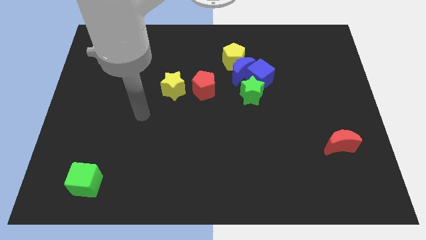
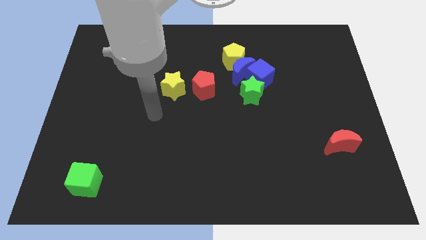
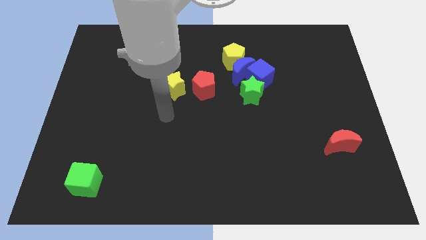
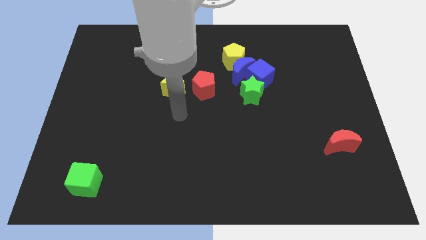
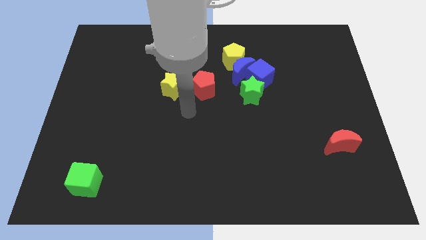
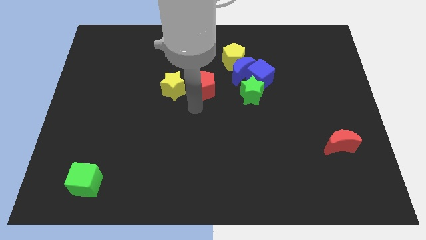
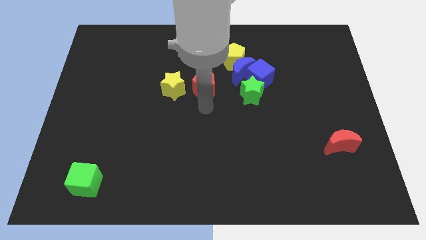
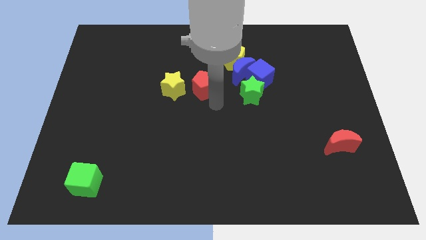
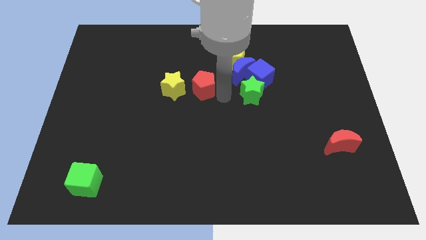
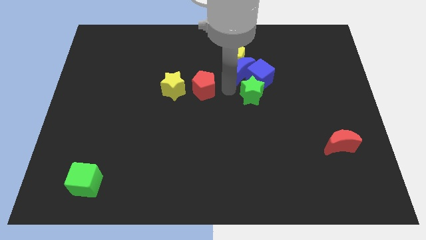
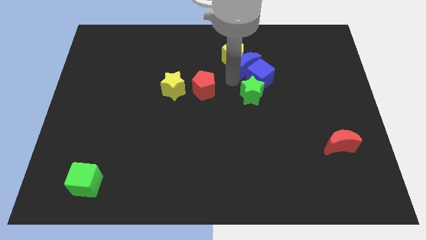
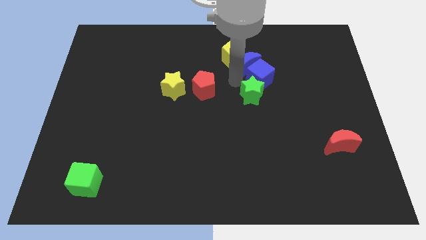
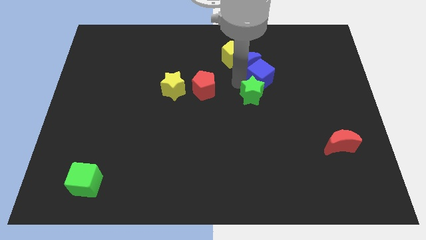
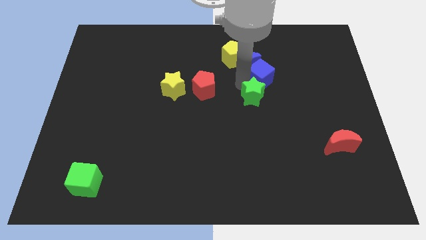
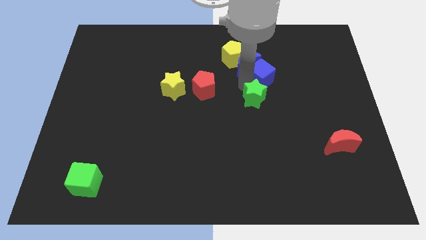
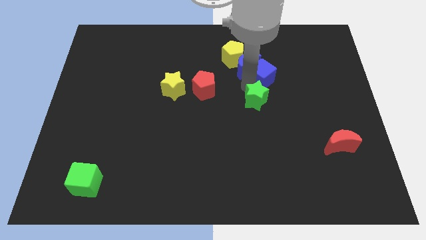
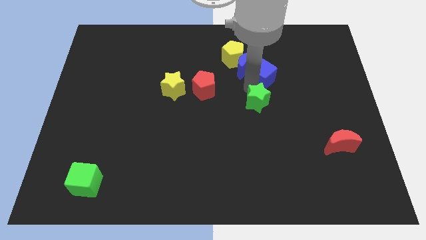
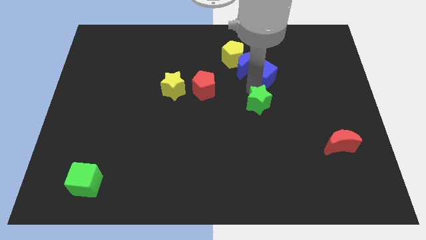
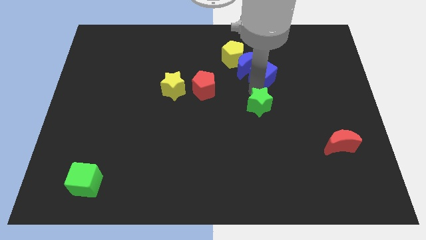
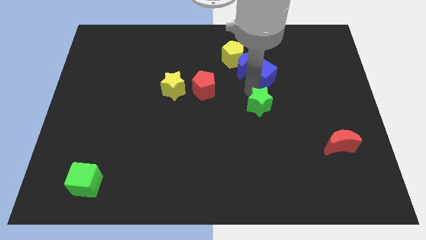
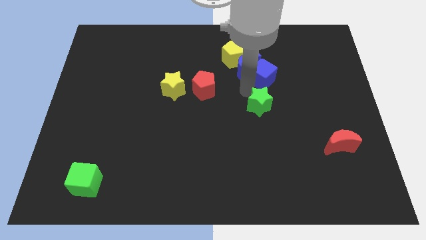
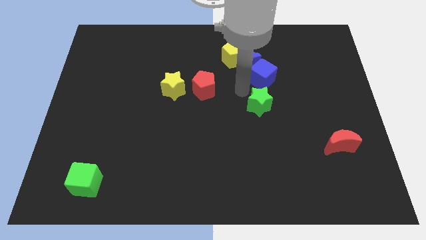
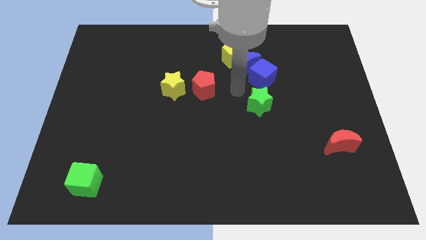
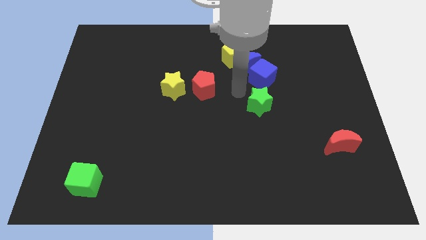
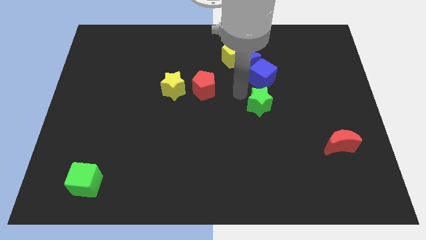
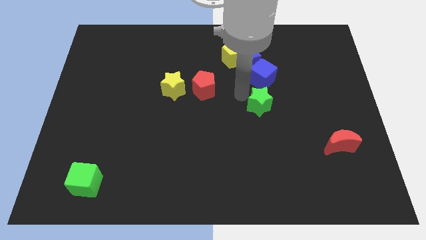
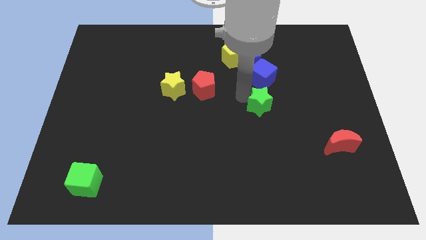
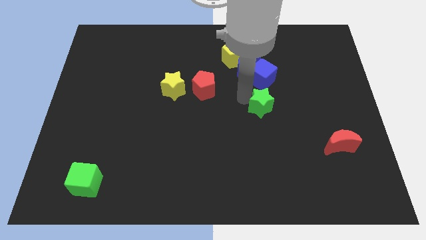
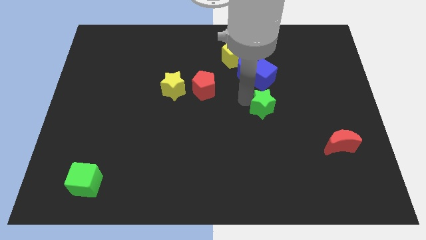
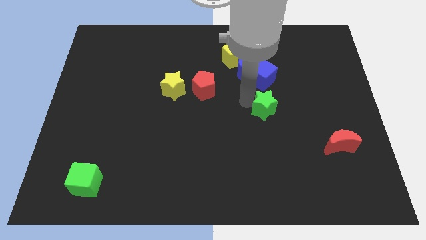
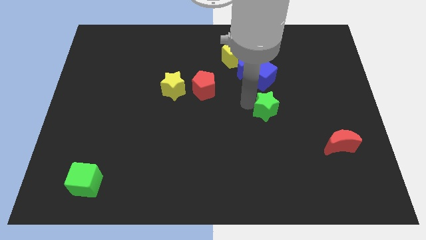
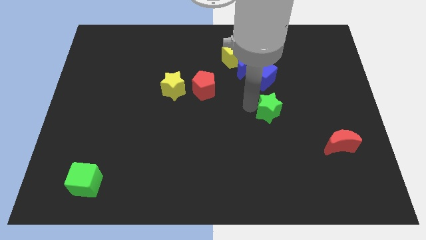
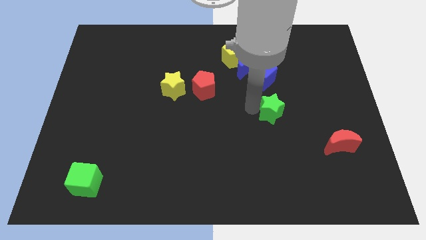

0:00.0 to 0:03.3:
slightly move the green star downwards and right diagonally

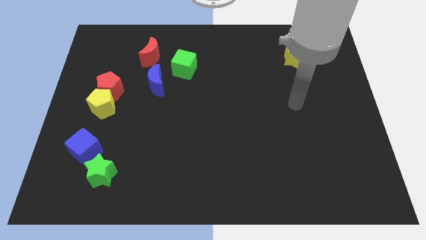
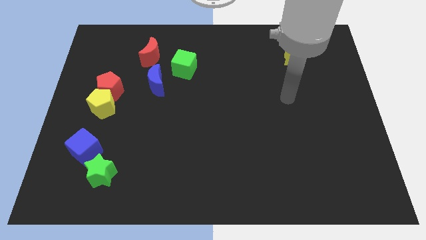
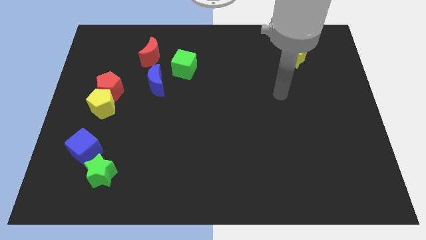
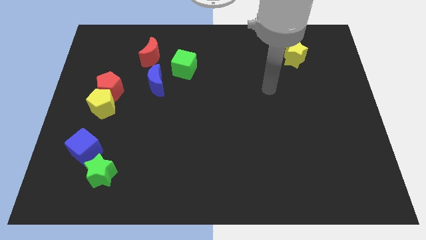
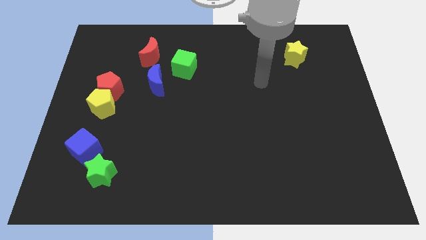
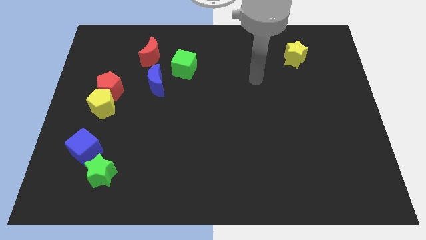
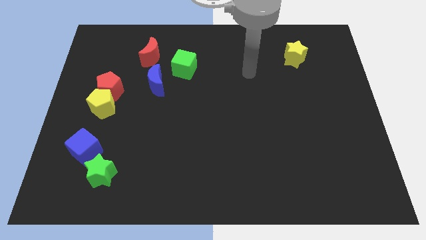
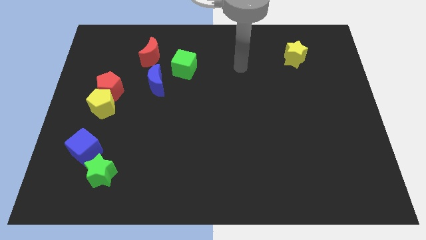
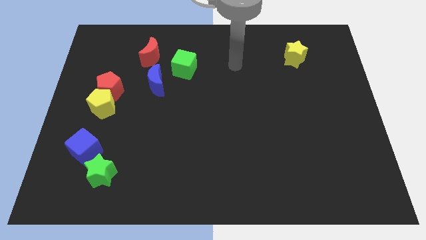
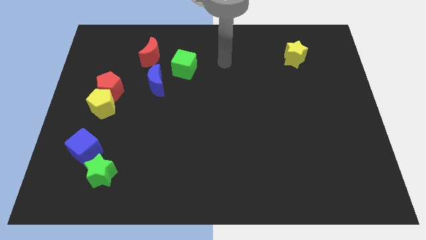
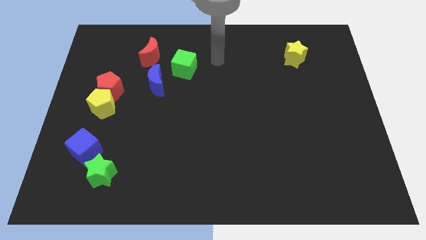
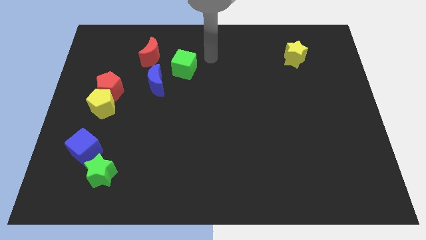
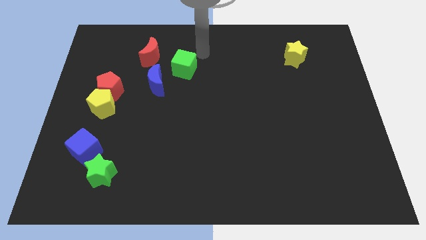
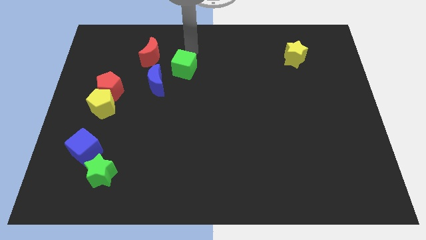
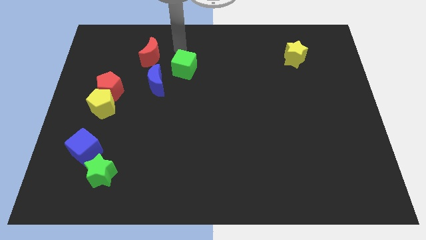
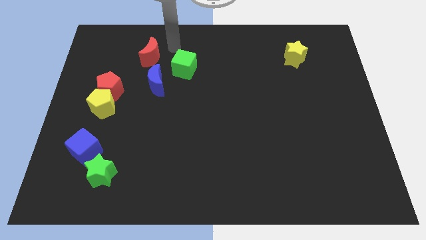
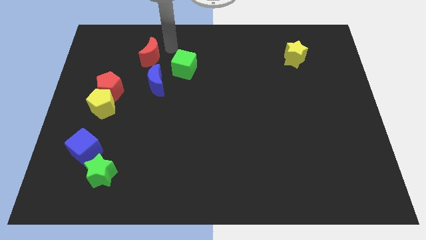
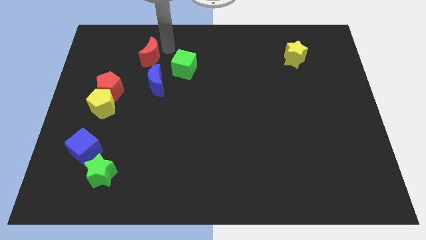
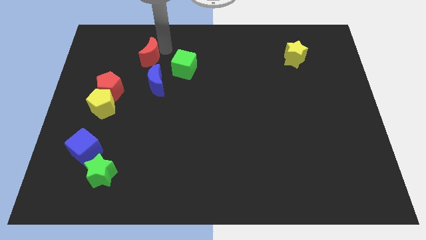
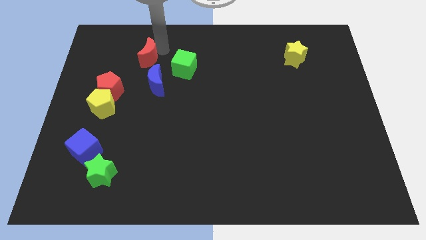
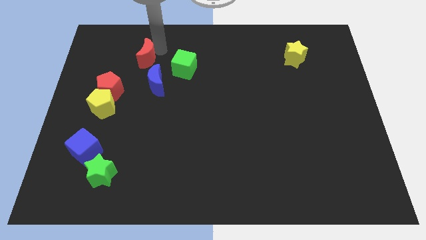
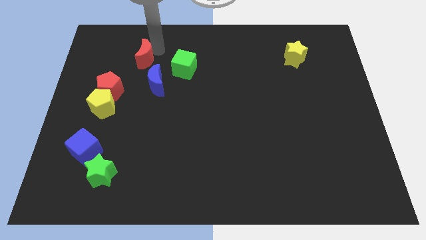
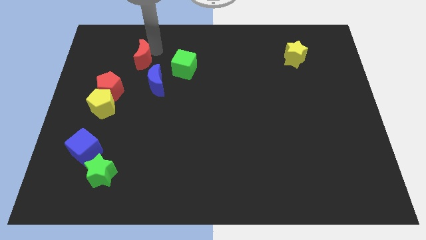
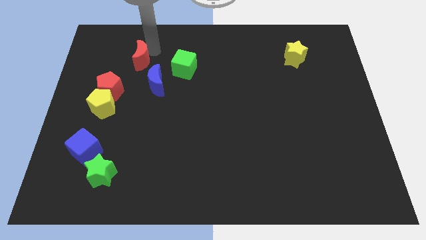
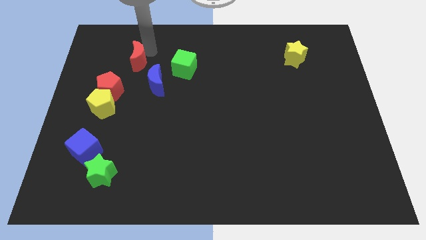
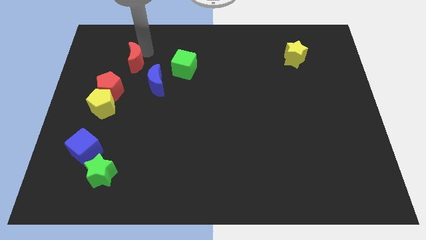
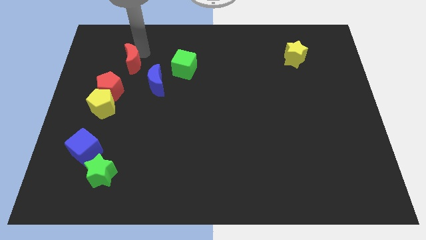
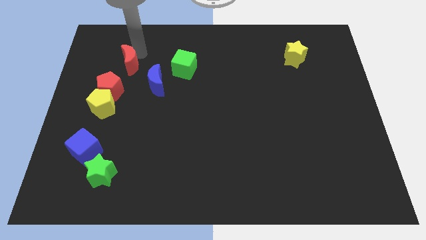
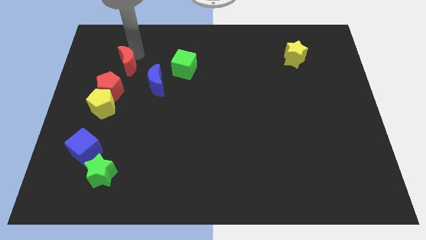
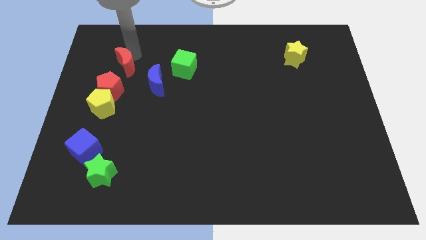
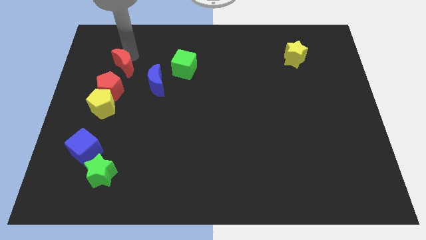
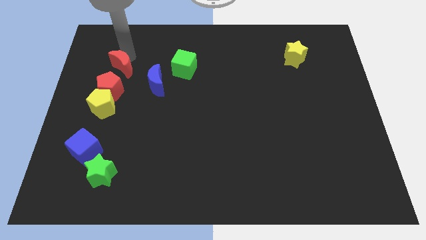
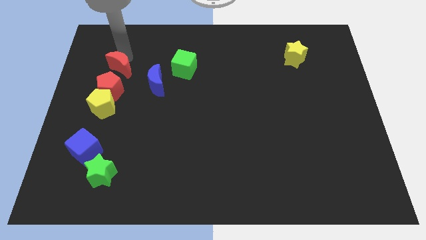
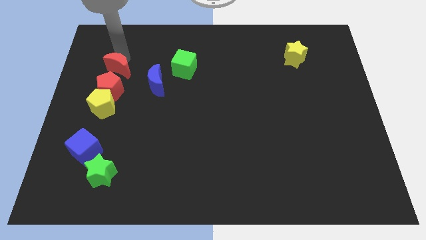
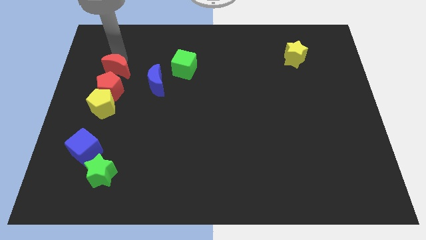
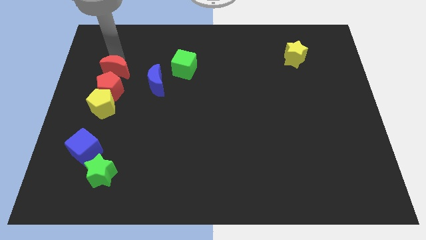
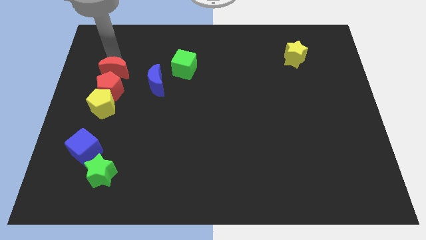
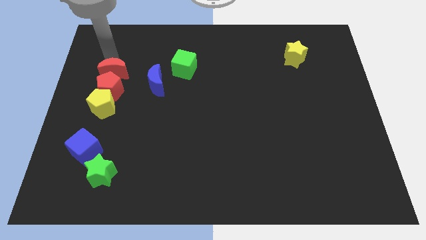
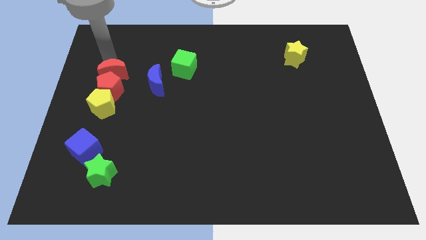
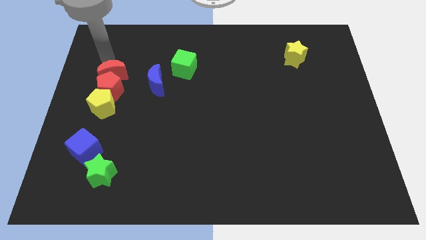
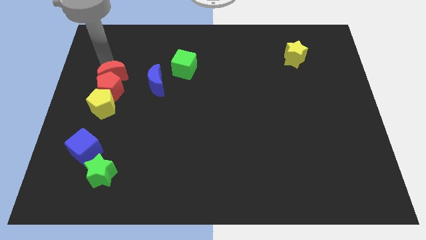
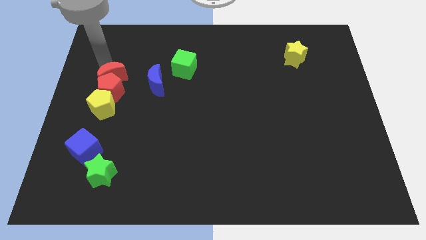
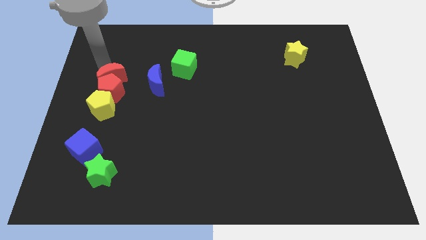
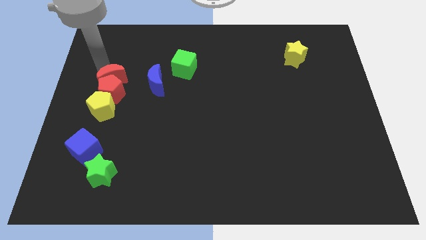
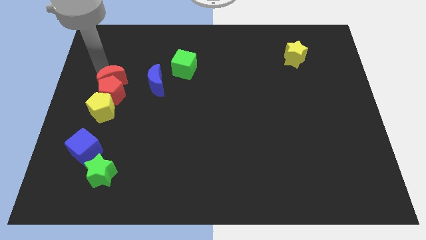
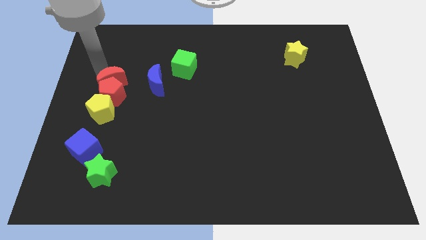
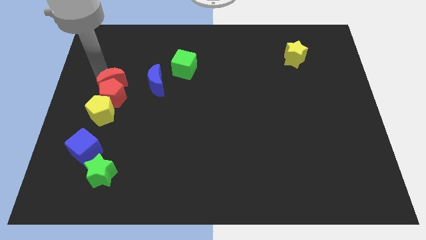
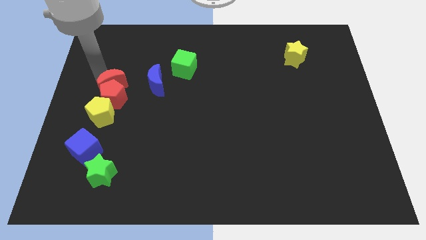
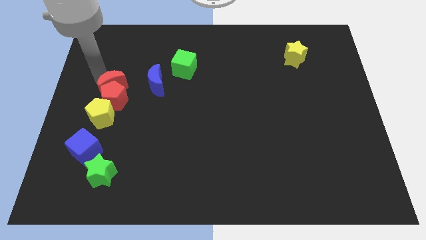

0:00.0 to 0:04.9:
slightly push the red moon down
